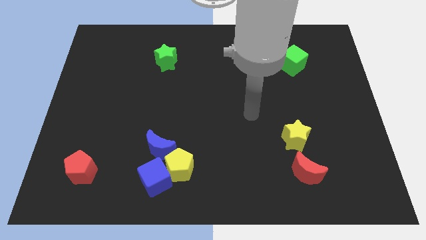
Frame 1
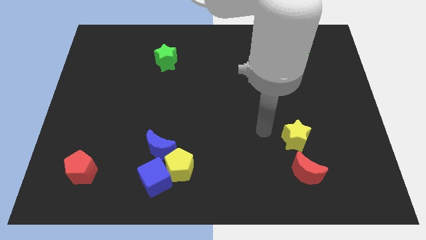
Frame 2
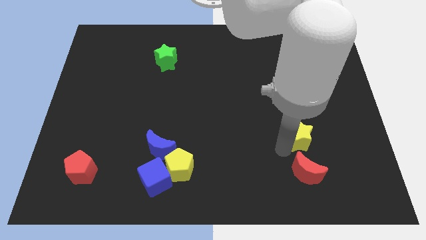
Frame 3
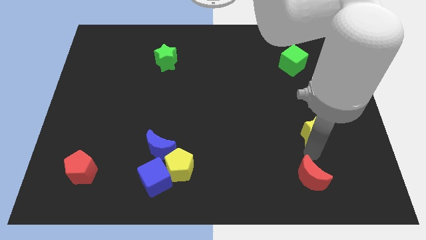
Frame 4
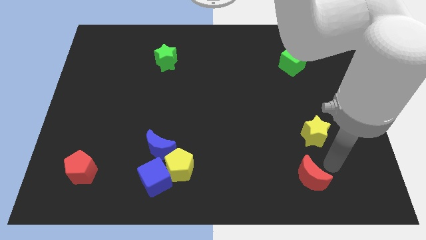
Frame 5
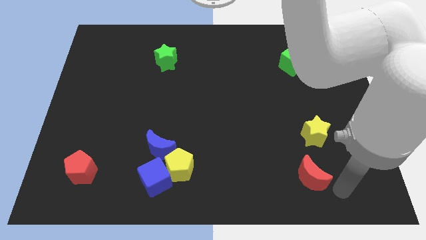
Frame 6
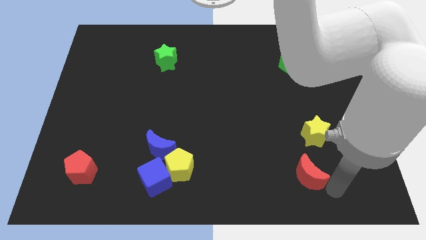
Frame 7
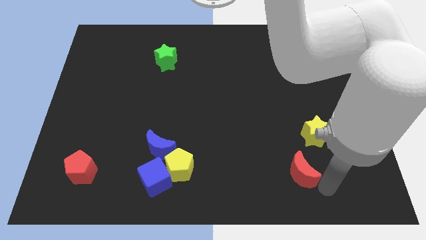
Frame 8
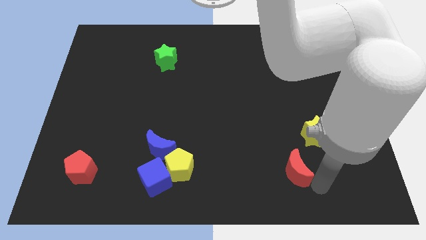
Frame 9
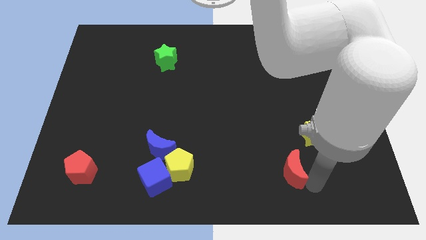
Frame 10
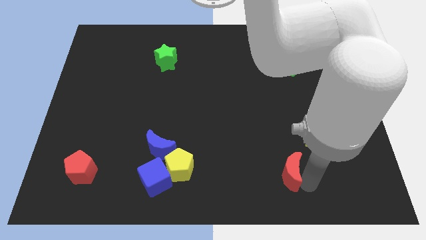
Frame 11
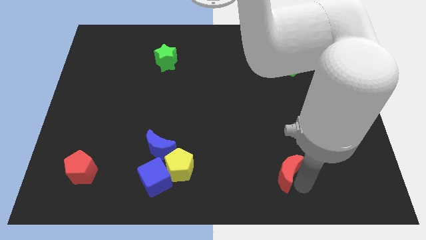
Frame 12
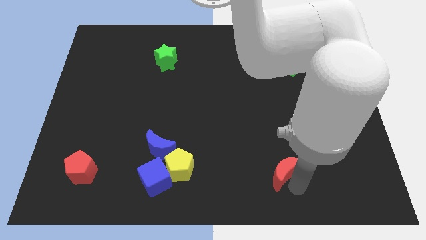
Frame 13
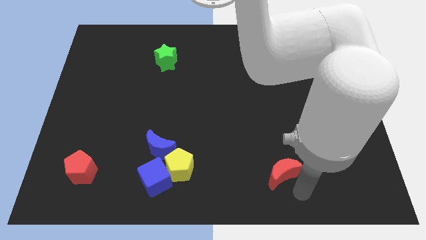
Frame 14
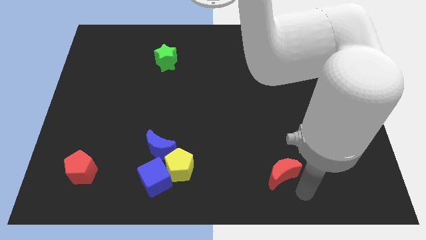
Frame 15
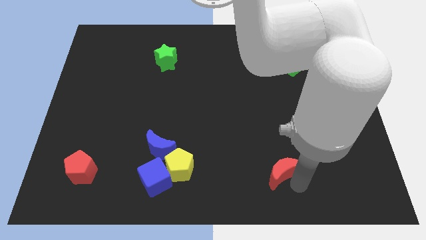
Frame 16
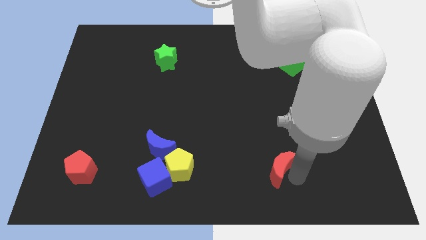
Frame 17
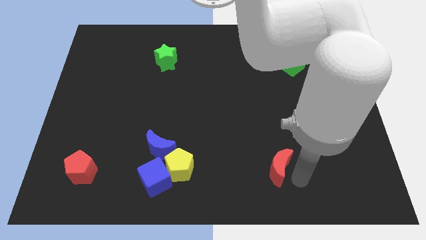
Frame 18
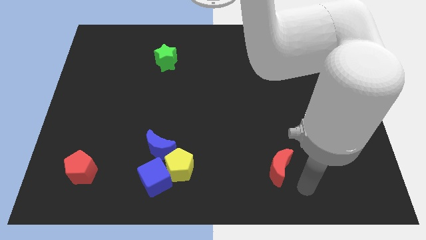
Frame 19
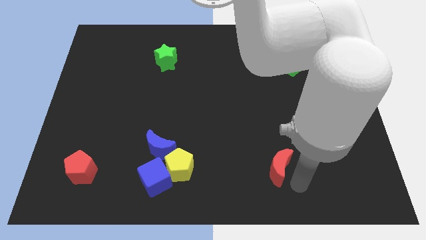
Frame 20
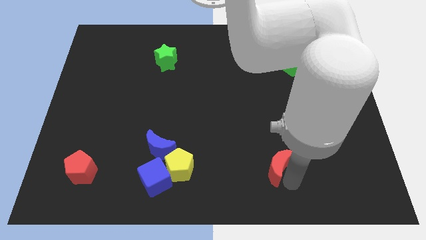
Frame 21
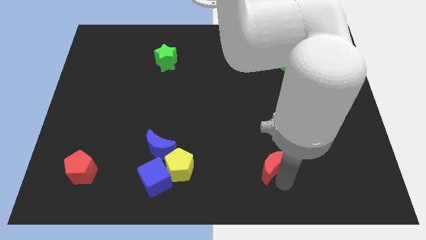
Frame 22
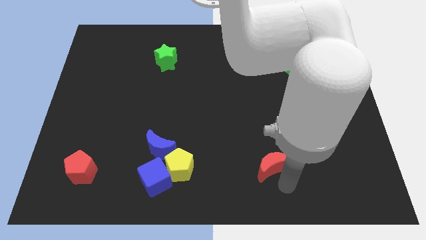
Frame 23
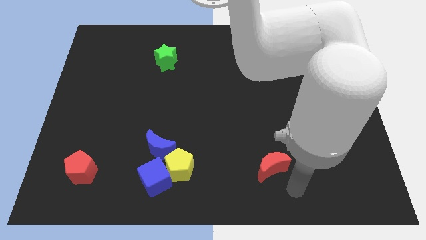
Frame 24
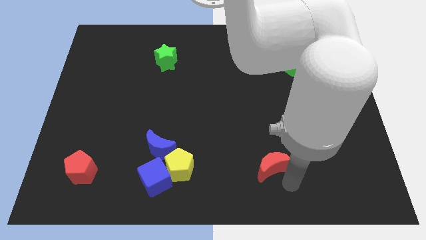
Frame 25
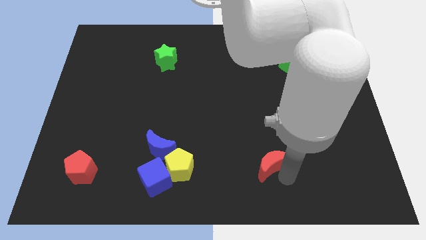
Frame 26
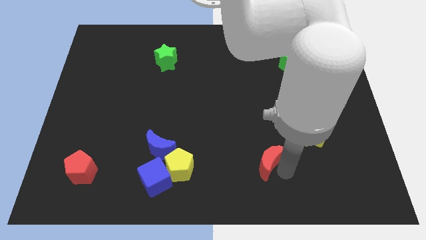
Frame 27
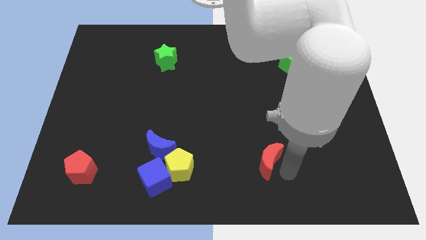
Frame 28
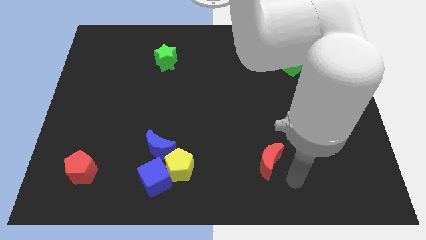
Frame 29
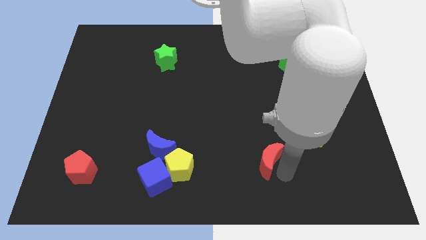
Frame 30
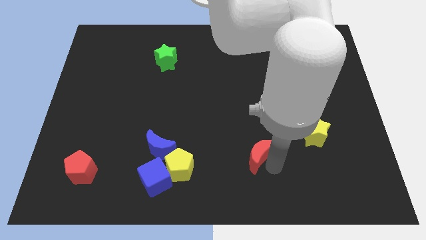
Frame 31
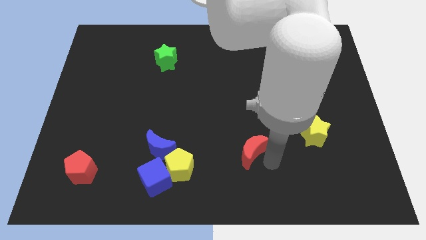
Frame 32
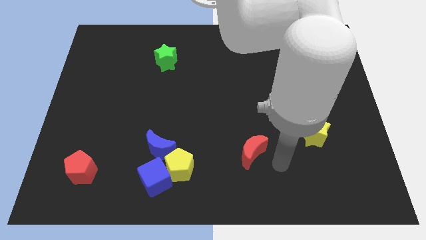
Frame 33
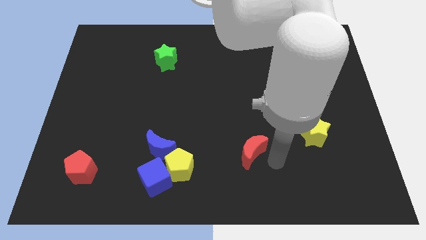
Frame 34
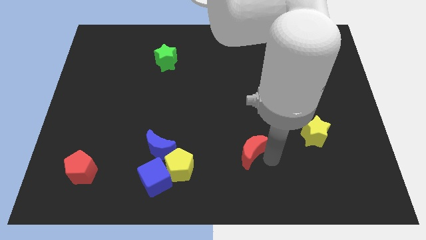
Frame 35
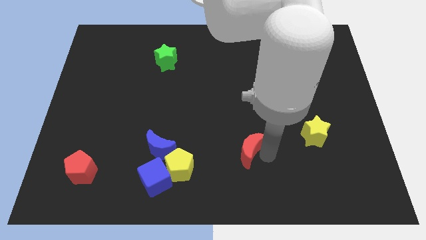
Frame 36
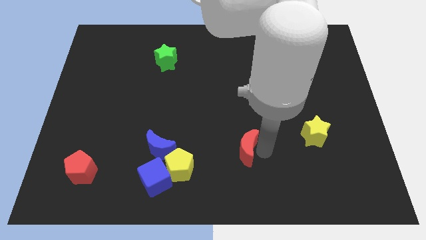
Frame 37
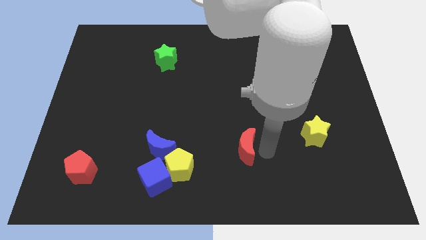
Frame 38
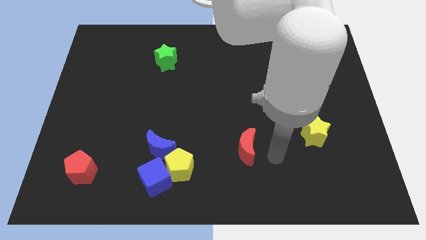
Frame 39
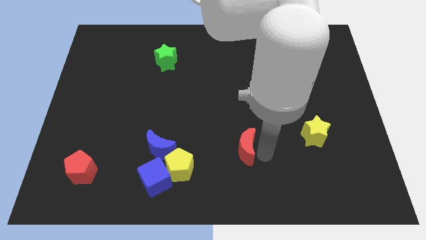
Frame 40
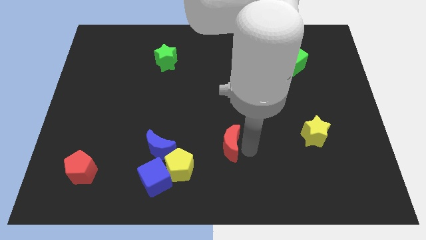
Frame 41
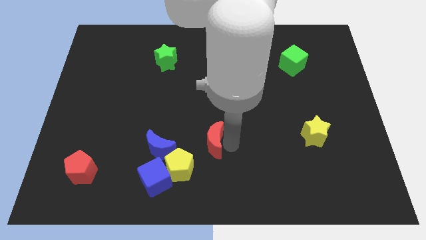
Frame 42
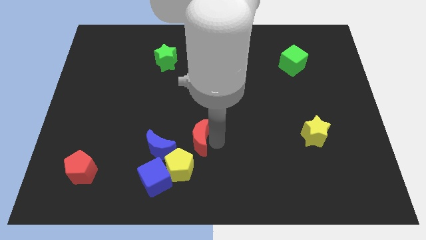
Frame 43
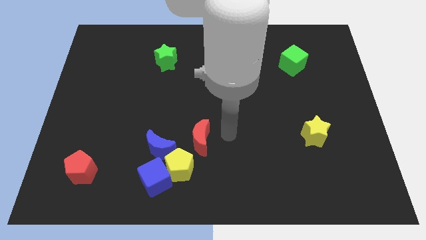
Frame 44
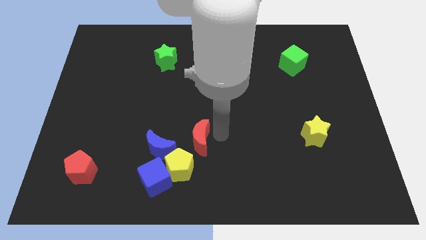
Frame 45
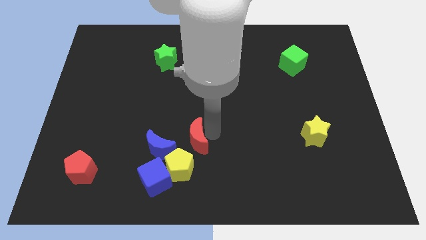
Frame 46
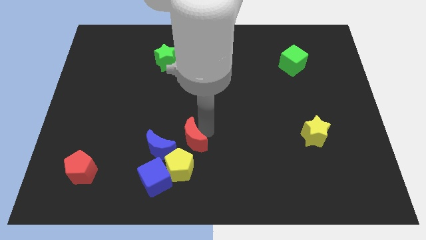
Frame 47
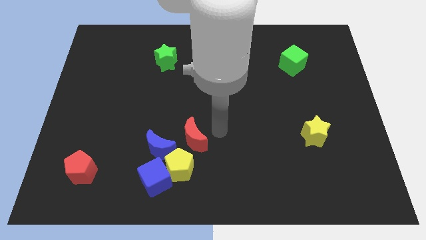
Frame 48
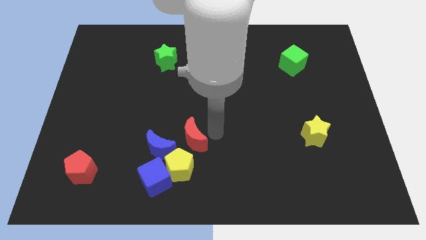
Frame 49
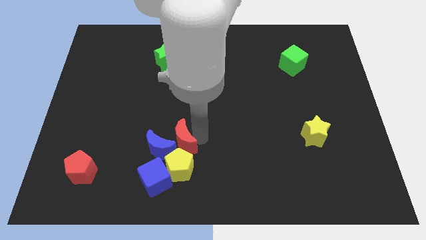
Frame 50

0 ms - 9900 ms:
put the red moon close to the blue moon

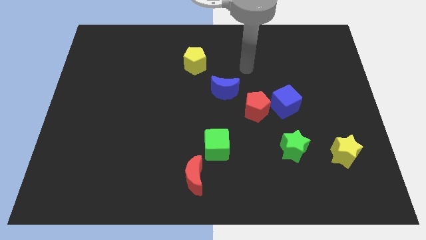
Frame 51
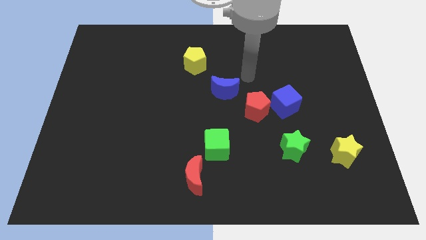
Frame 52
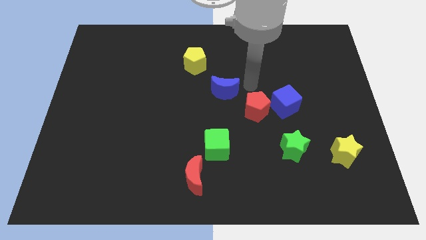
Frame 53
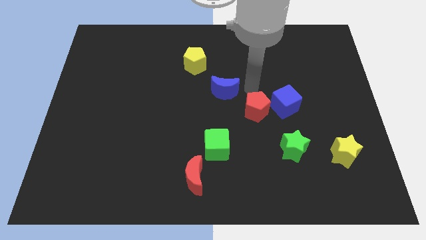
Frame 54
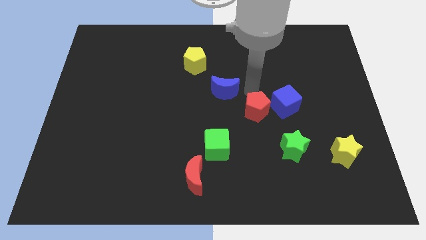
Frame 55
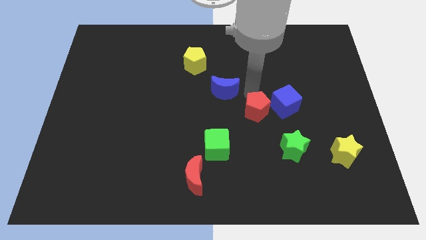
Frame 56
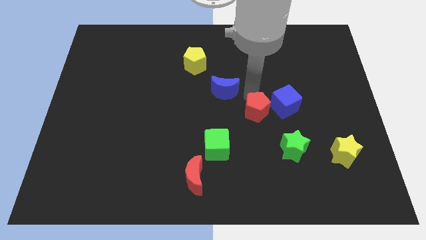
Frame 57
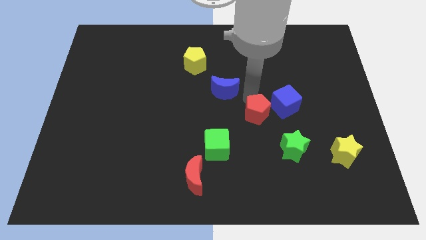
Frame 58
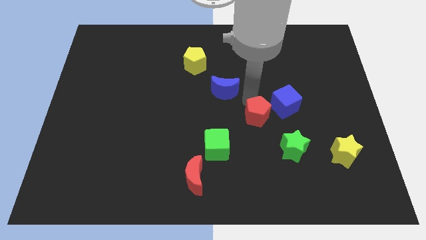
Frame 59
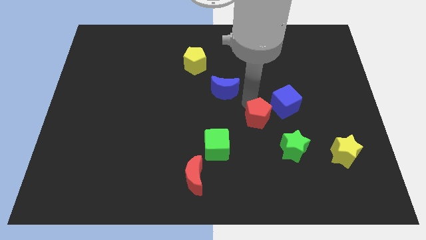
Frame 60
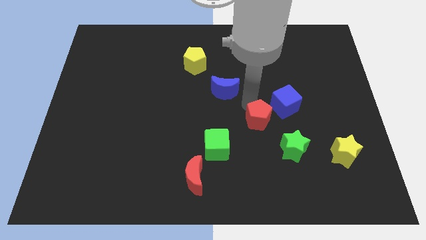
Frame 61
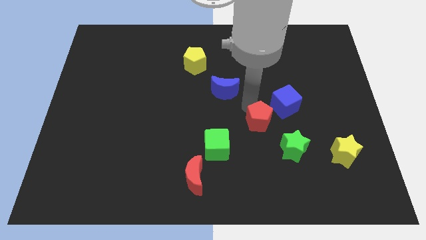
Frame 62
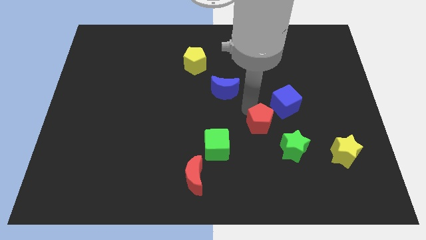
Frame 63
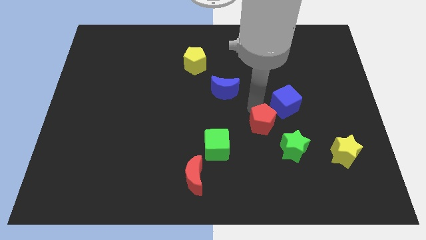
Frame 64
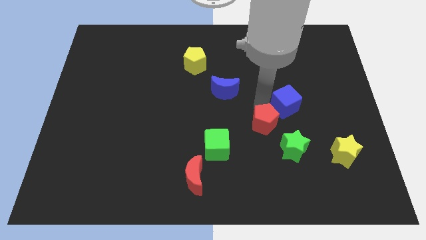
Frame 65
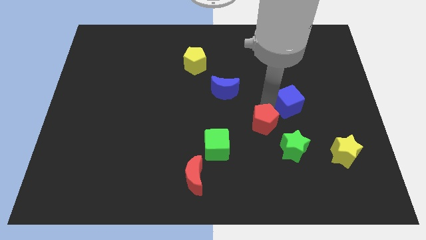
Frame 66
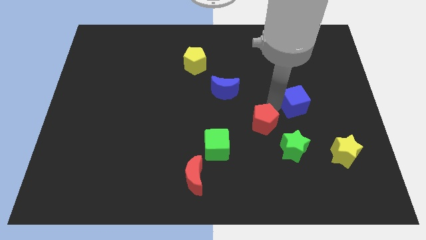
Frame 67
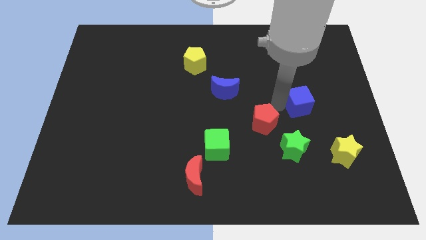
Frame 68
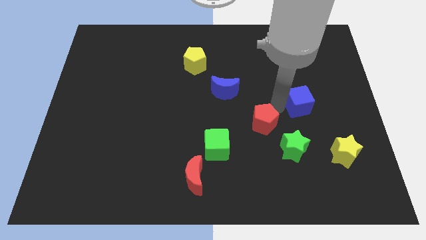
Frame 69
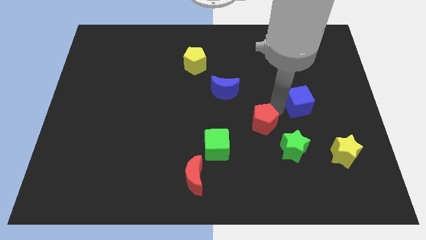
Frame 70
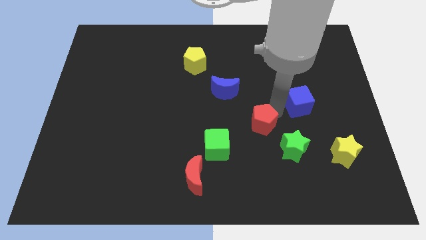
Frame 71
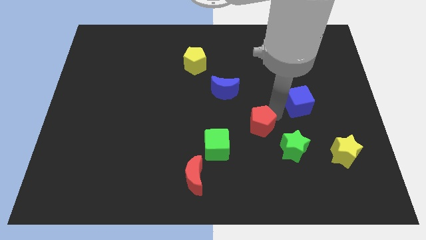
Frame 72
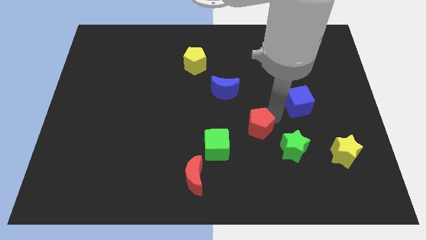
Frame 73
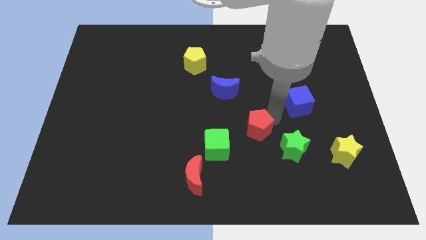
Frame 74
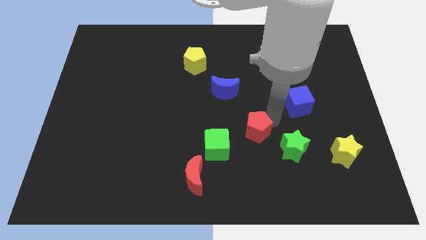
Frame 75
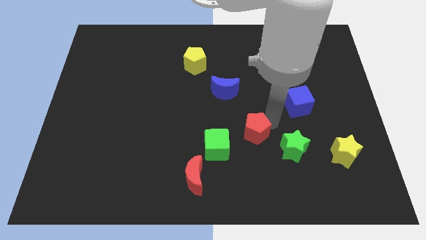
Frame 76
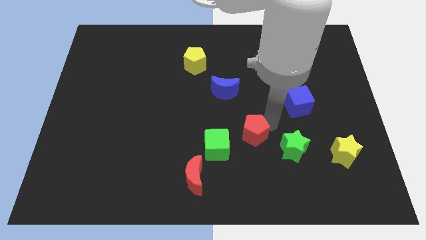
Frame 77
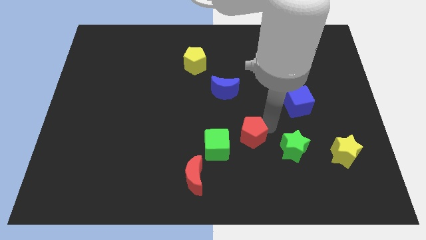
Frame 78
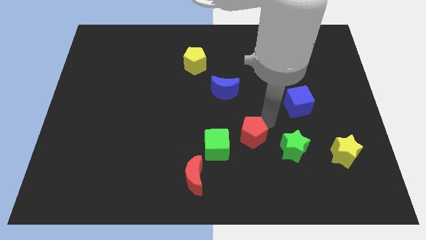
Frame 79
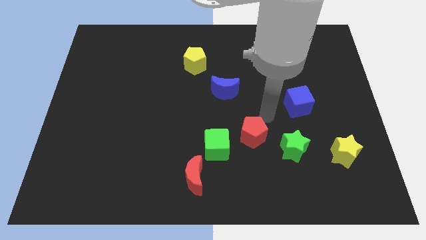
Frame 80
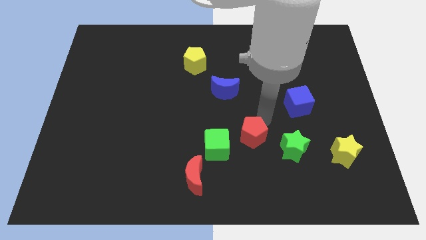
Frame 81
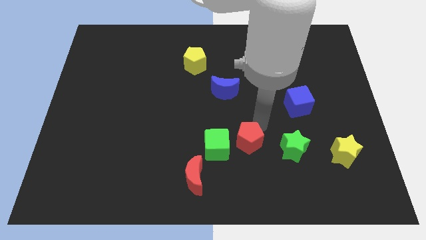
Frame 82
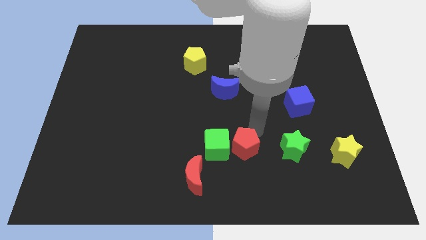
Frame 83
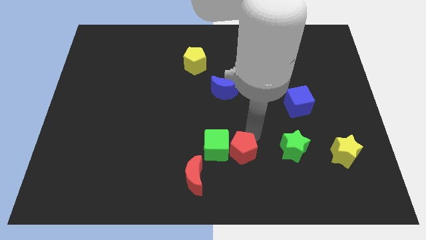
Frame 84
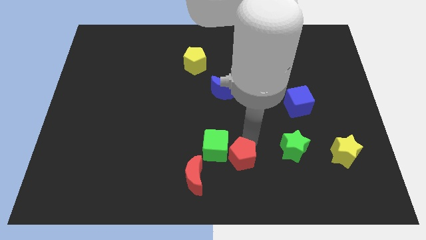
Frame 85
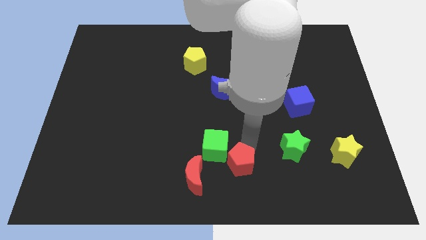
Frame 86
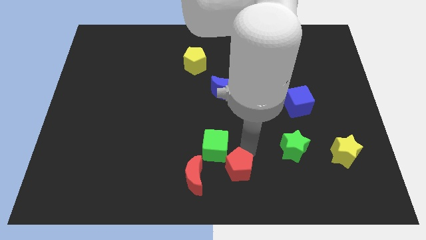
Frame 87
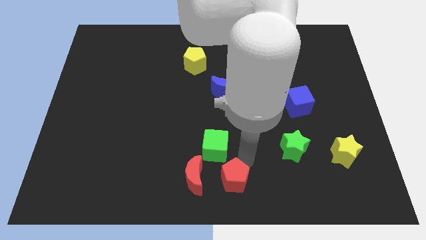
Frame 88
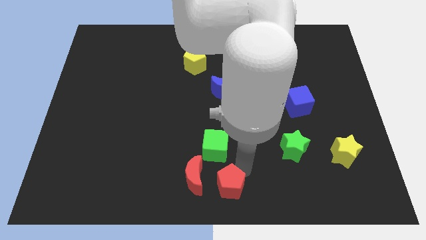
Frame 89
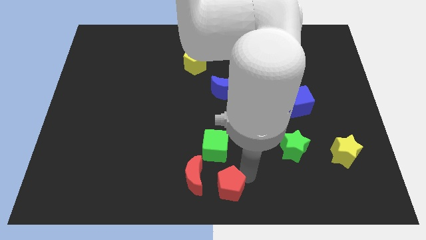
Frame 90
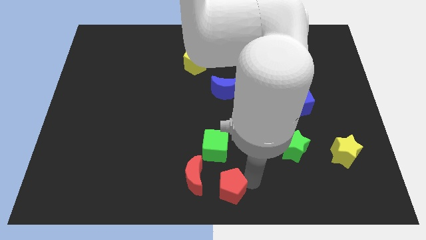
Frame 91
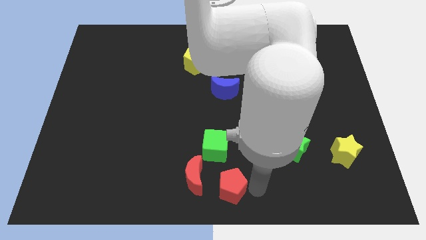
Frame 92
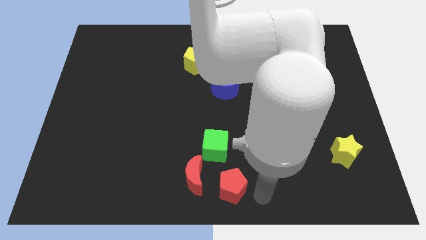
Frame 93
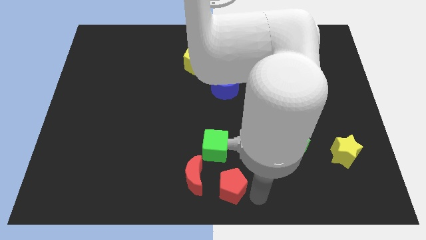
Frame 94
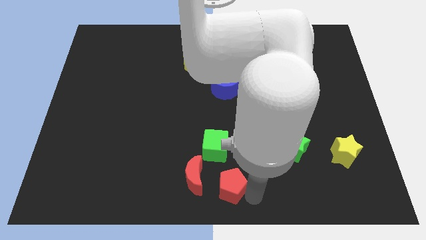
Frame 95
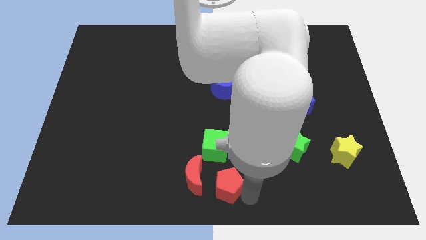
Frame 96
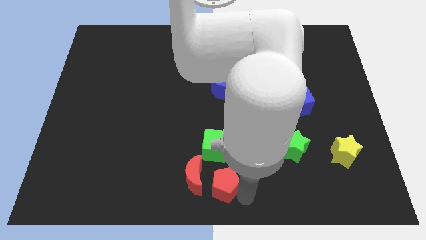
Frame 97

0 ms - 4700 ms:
slide the red pentagon close to the red moon
